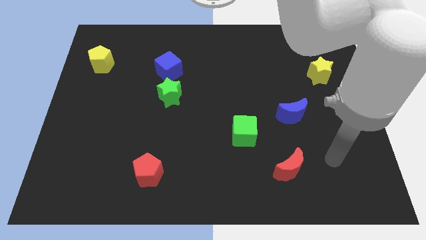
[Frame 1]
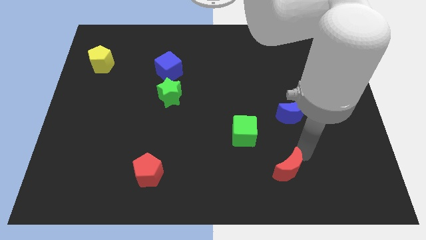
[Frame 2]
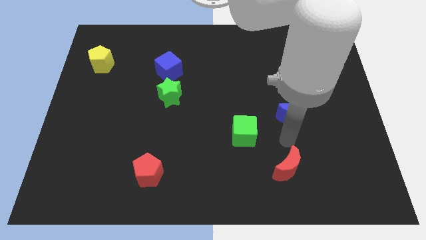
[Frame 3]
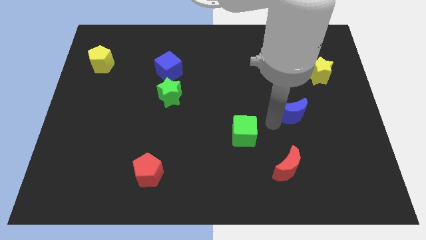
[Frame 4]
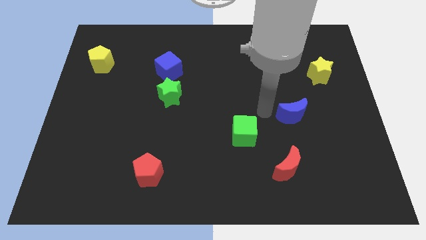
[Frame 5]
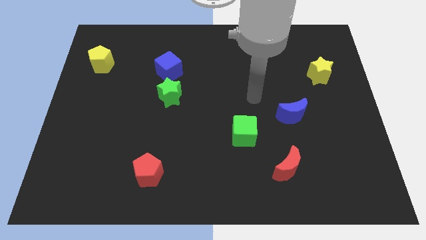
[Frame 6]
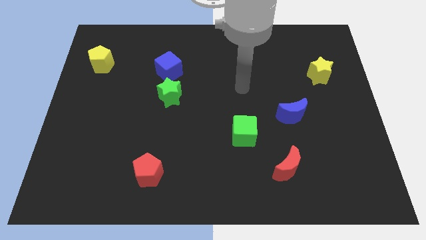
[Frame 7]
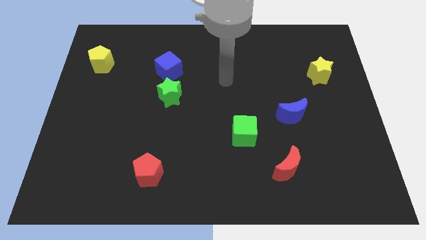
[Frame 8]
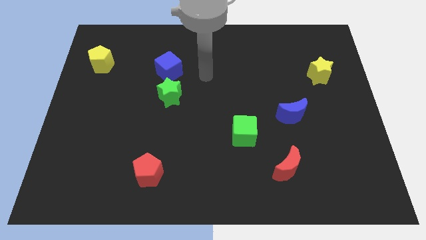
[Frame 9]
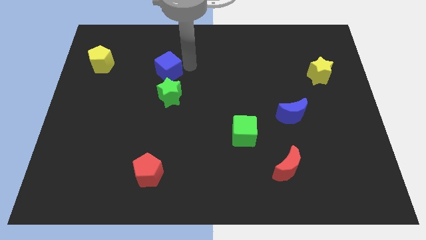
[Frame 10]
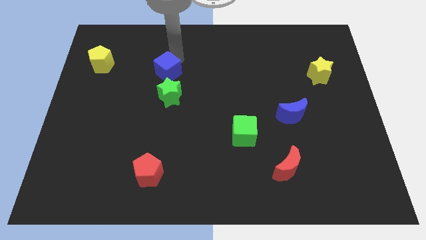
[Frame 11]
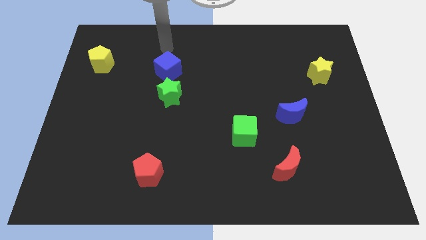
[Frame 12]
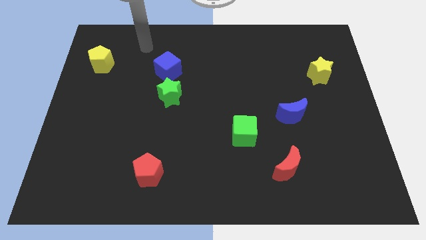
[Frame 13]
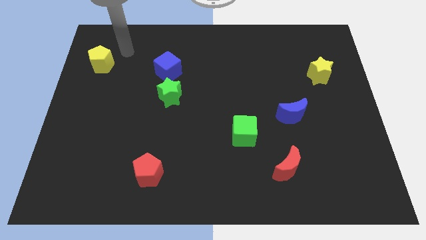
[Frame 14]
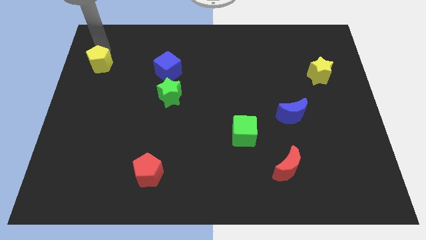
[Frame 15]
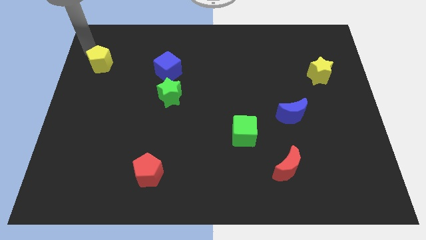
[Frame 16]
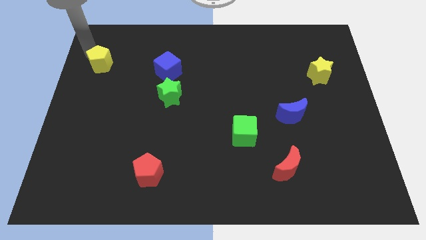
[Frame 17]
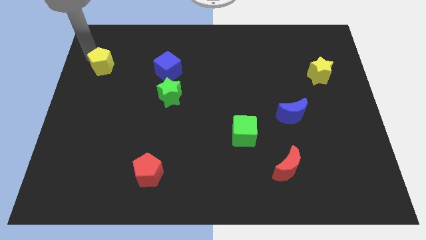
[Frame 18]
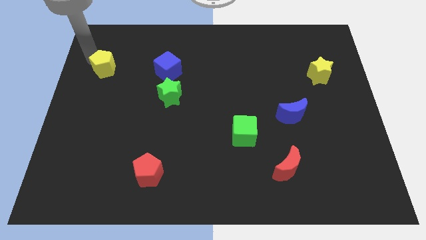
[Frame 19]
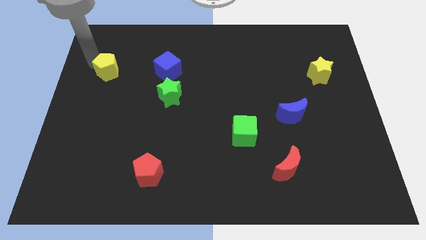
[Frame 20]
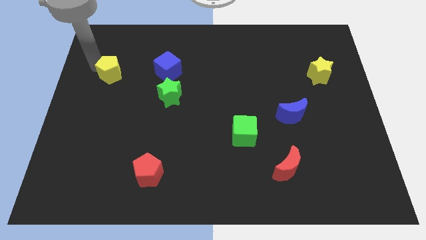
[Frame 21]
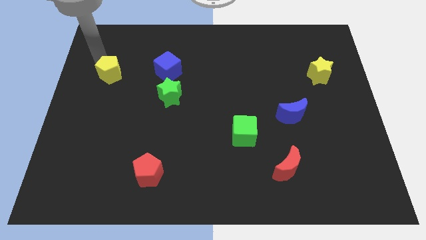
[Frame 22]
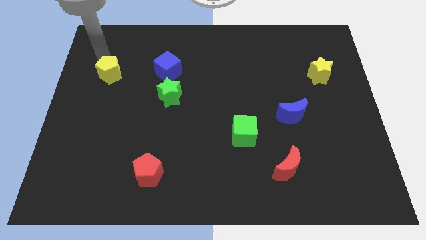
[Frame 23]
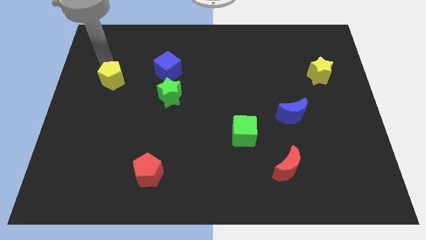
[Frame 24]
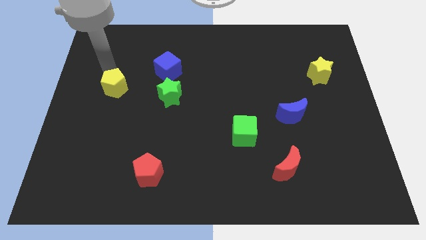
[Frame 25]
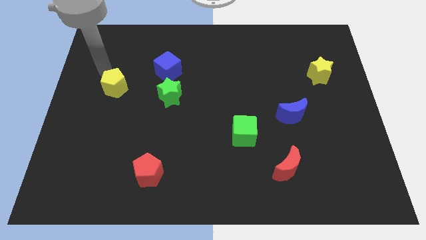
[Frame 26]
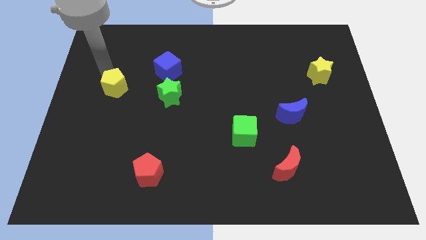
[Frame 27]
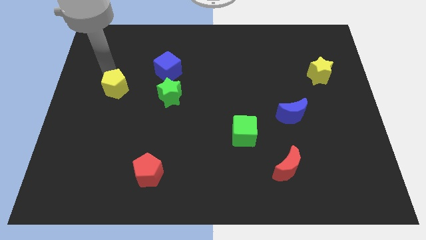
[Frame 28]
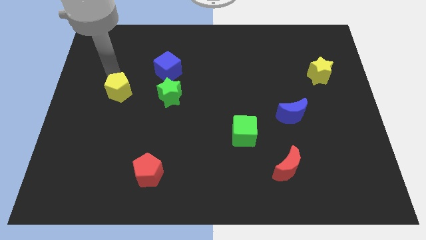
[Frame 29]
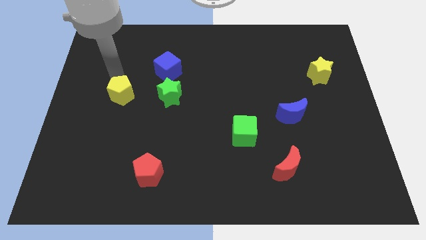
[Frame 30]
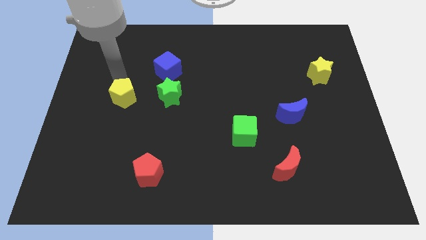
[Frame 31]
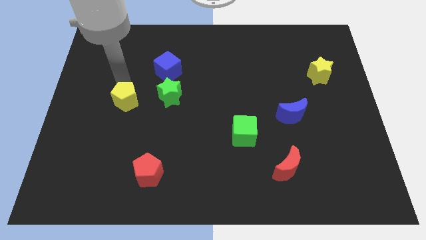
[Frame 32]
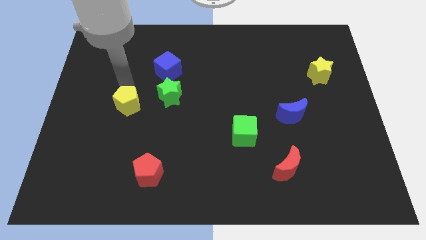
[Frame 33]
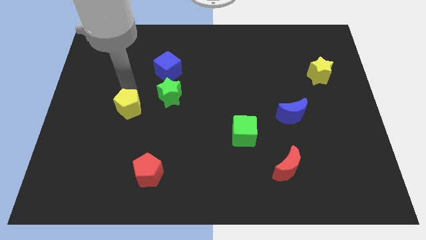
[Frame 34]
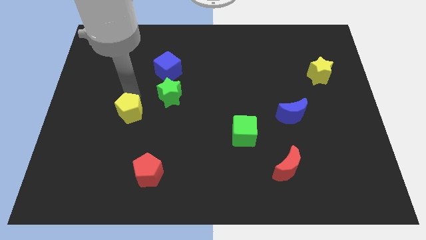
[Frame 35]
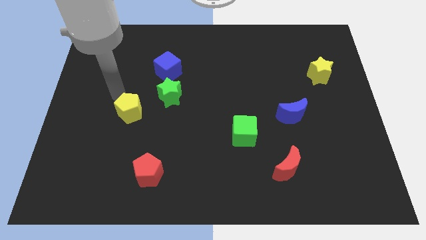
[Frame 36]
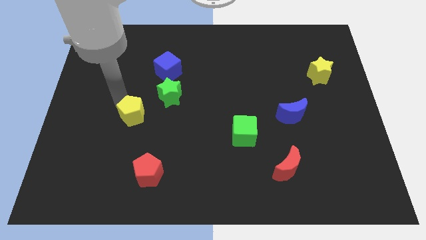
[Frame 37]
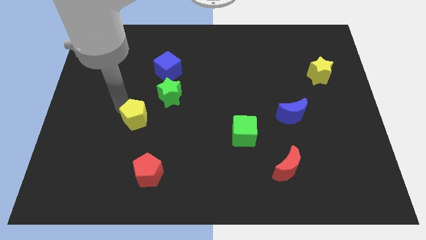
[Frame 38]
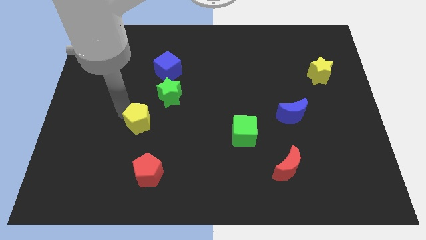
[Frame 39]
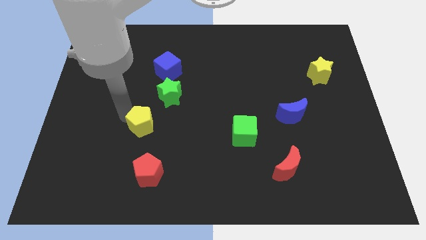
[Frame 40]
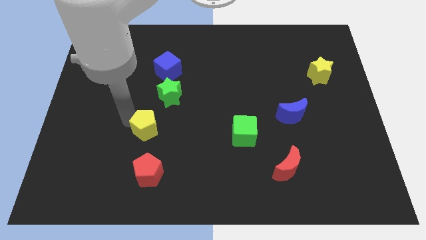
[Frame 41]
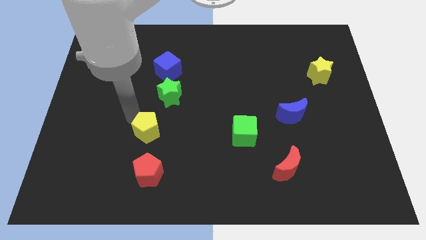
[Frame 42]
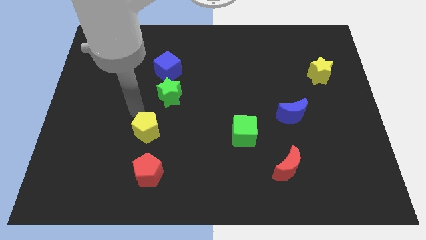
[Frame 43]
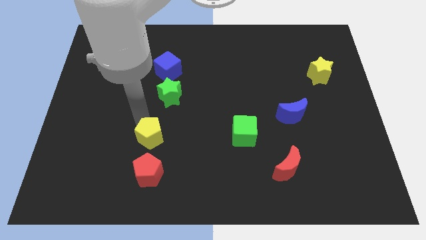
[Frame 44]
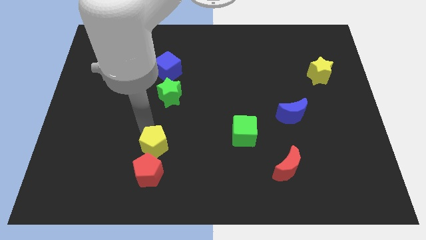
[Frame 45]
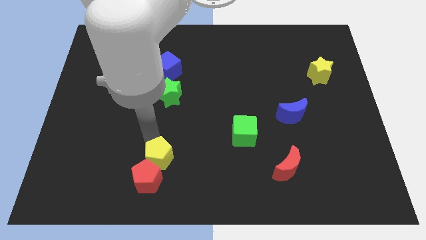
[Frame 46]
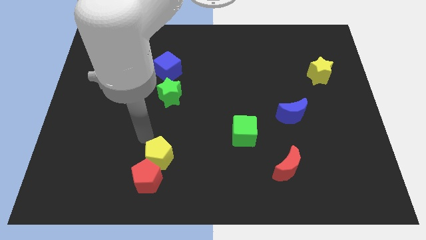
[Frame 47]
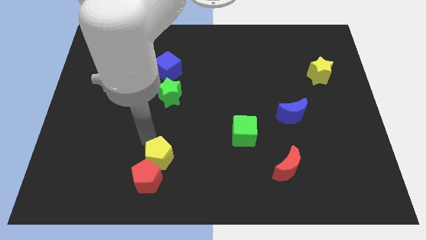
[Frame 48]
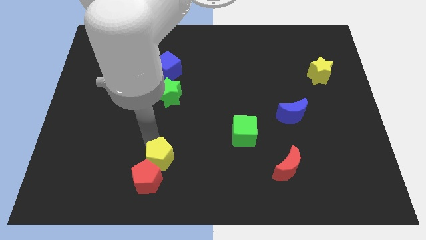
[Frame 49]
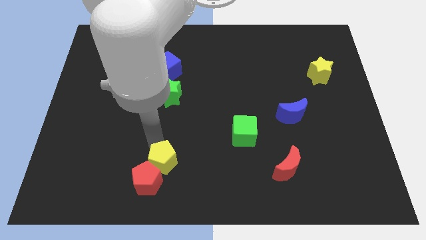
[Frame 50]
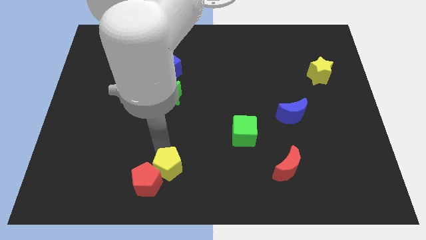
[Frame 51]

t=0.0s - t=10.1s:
move the yellow pentagon to the bottom

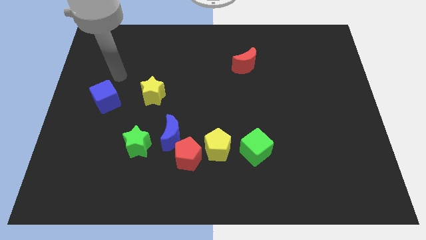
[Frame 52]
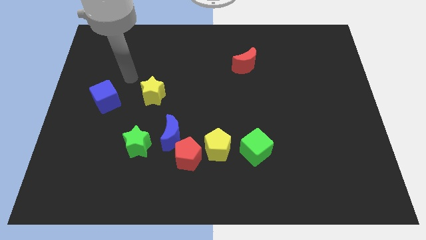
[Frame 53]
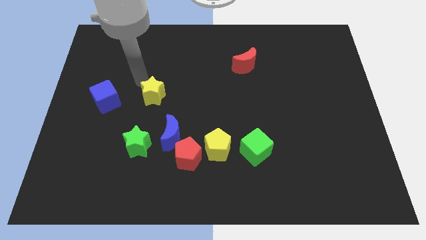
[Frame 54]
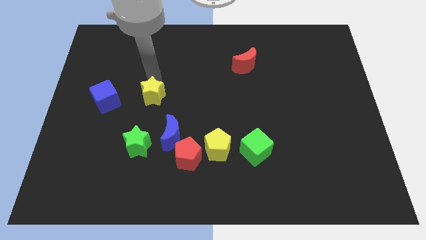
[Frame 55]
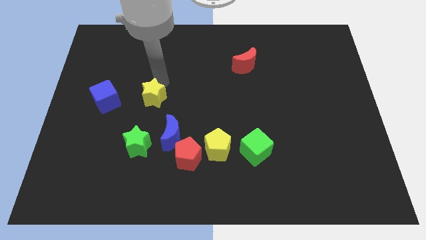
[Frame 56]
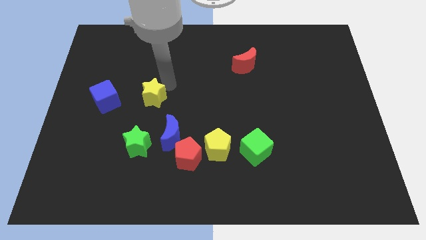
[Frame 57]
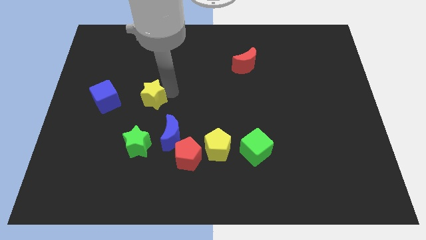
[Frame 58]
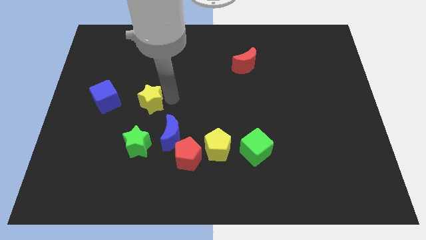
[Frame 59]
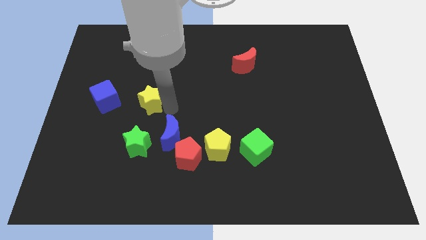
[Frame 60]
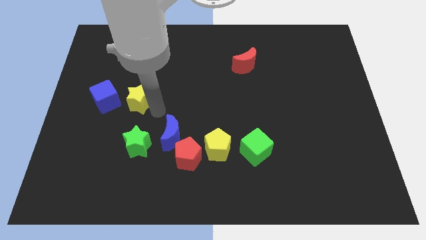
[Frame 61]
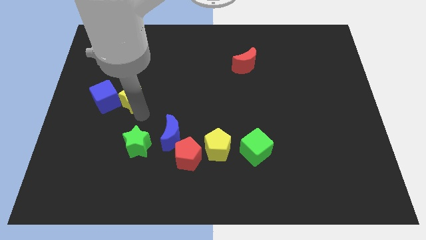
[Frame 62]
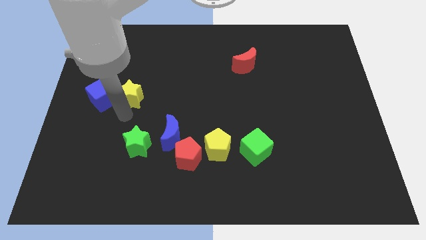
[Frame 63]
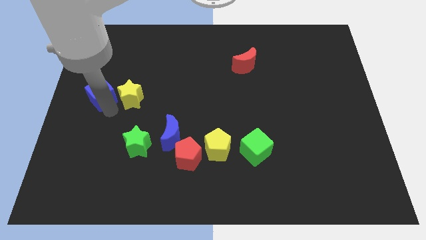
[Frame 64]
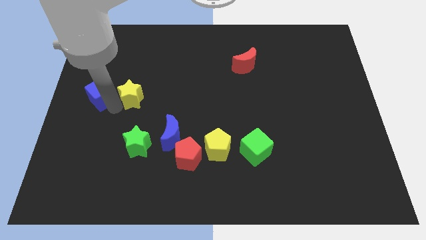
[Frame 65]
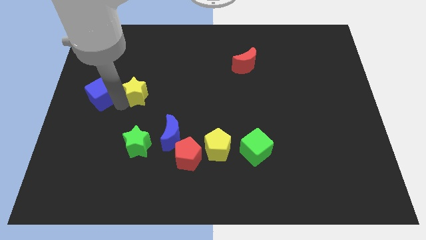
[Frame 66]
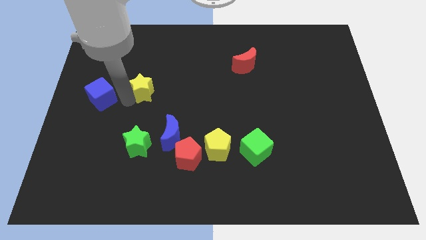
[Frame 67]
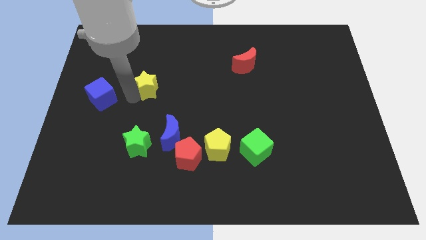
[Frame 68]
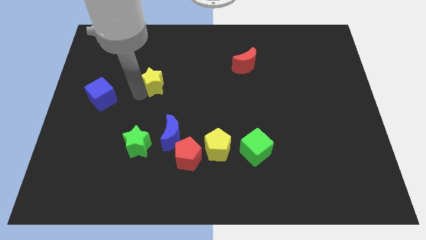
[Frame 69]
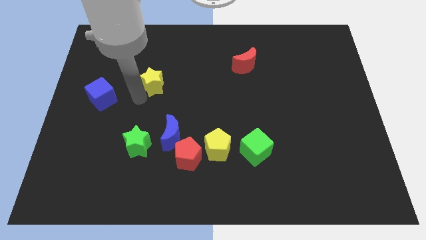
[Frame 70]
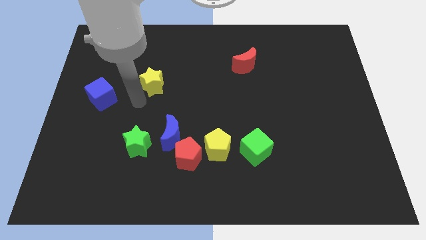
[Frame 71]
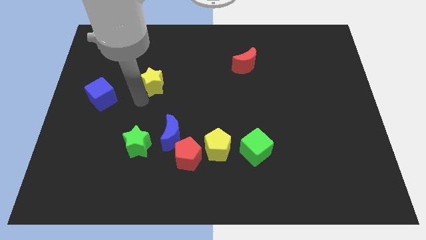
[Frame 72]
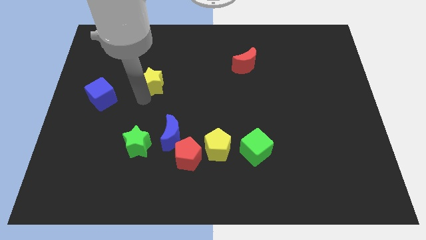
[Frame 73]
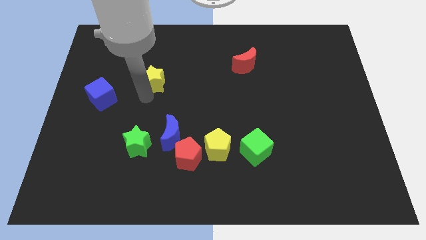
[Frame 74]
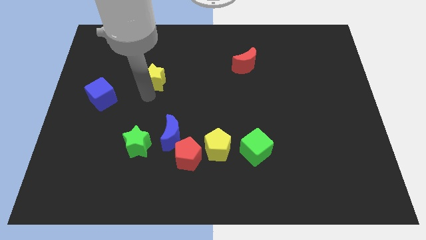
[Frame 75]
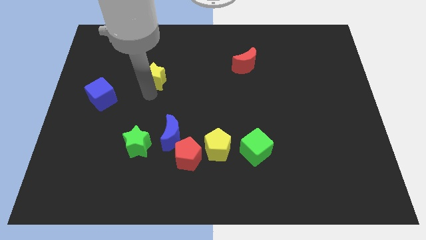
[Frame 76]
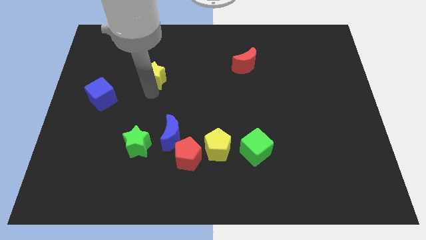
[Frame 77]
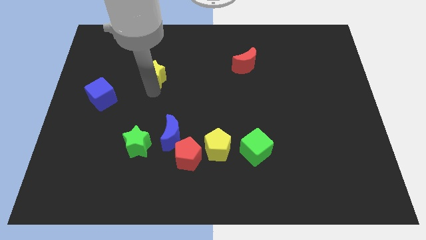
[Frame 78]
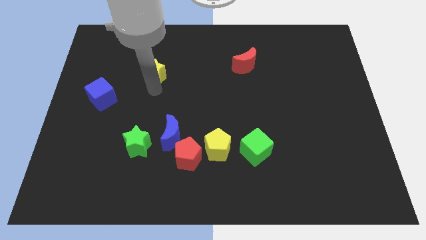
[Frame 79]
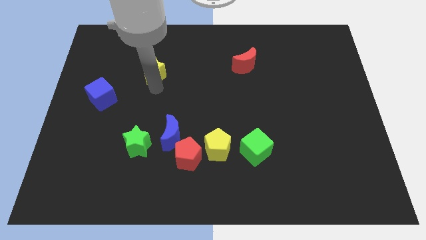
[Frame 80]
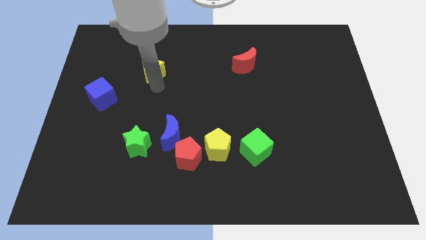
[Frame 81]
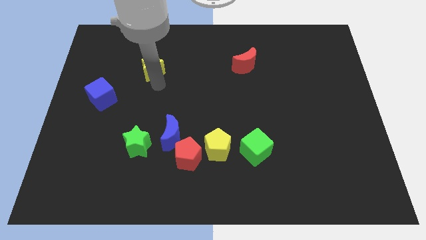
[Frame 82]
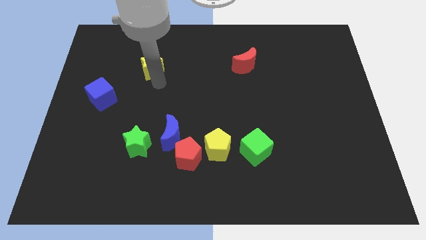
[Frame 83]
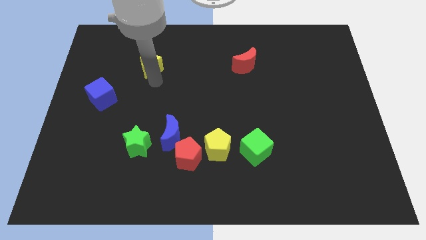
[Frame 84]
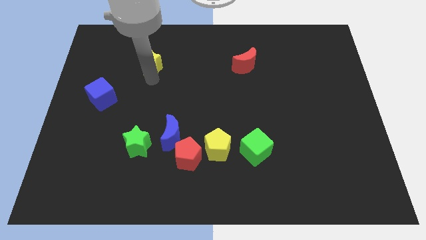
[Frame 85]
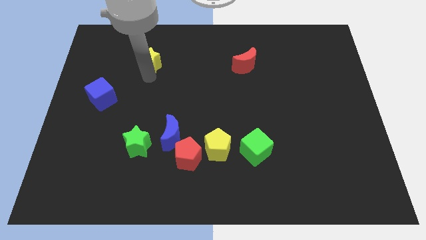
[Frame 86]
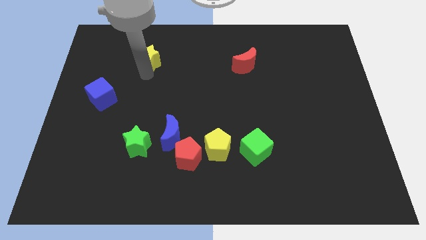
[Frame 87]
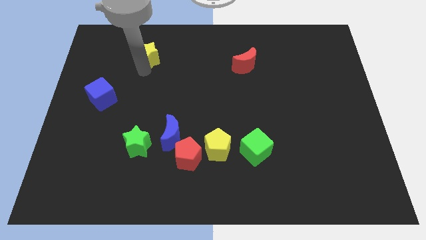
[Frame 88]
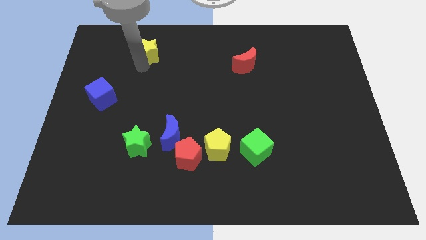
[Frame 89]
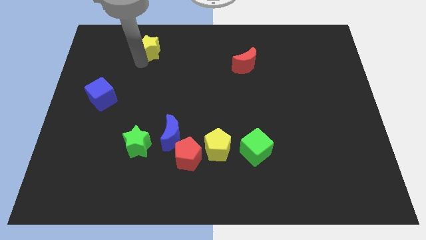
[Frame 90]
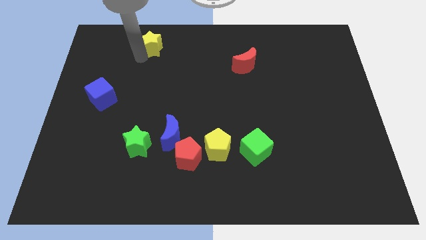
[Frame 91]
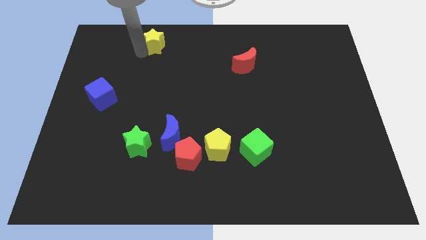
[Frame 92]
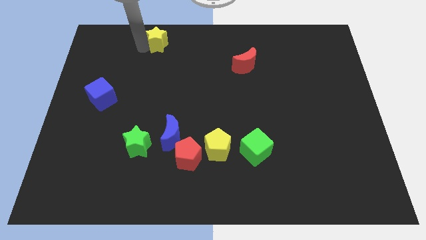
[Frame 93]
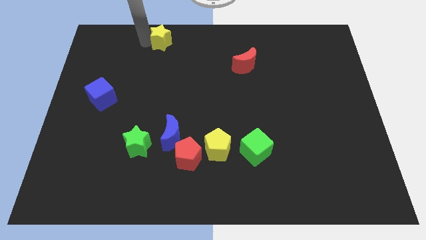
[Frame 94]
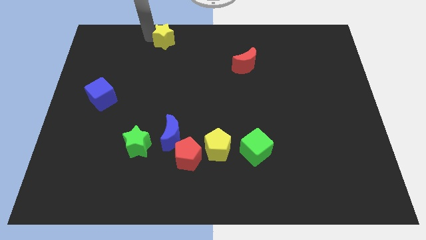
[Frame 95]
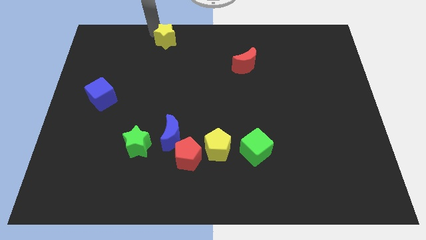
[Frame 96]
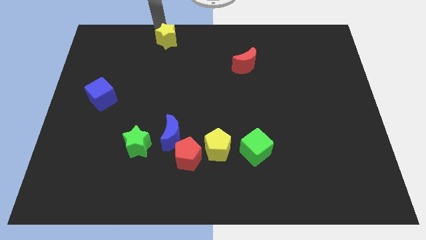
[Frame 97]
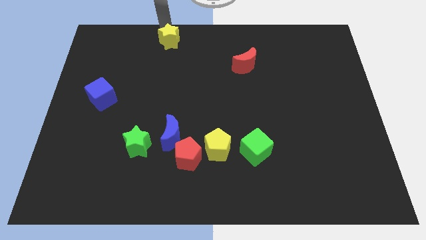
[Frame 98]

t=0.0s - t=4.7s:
push the yellow star to the top side
